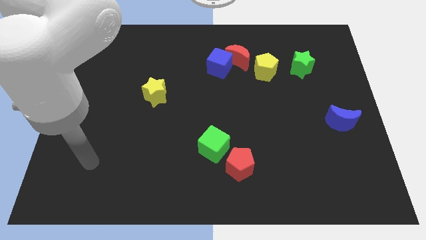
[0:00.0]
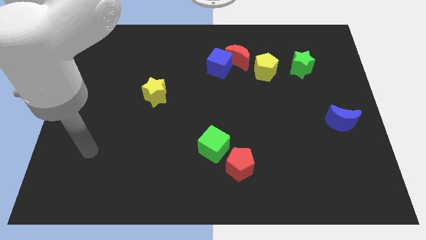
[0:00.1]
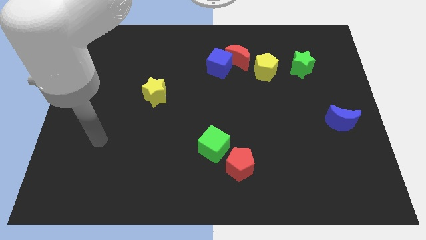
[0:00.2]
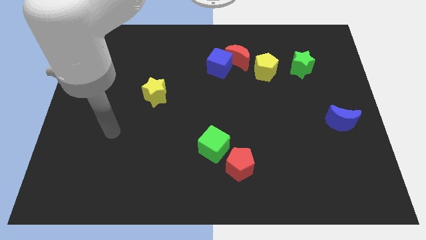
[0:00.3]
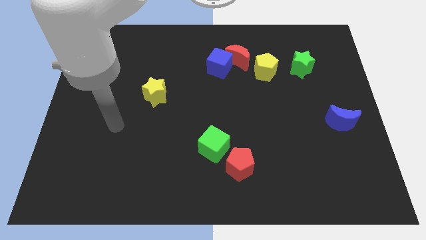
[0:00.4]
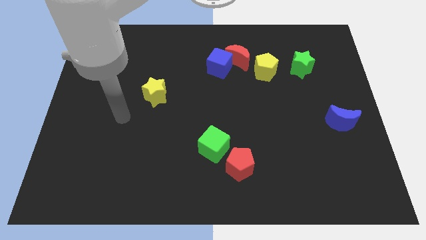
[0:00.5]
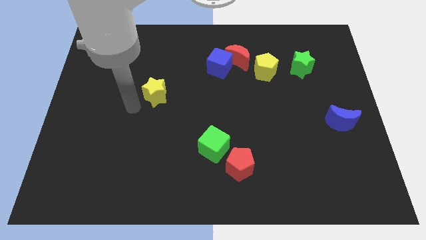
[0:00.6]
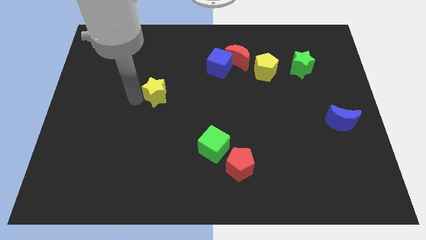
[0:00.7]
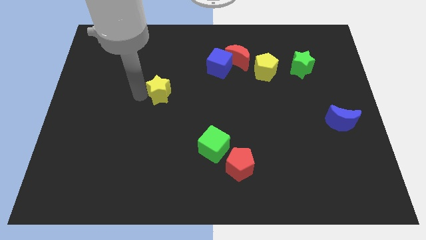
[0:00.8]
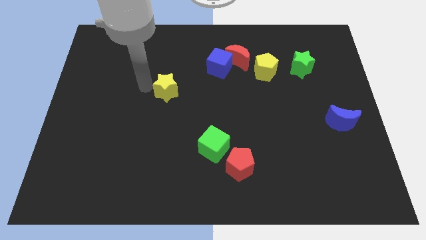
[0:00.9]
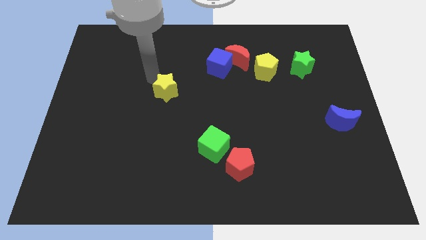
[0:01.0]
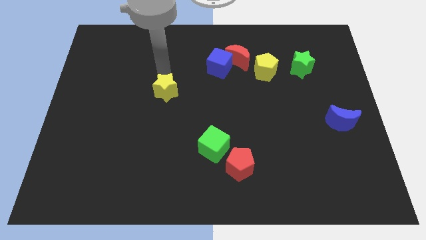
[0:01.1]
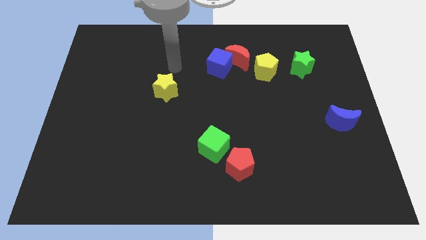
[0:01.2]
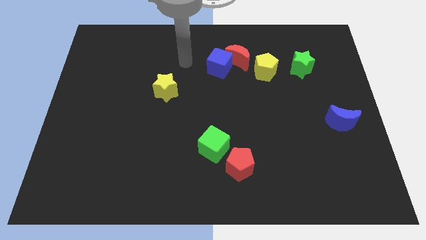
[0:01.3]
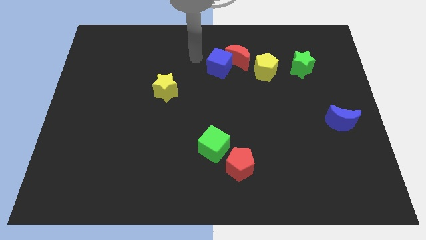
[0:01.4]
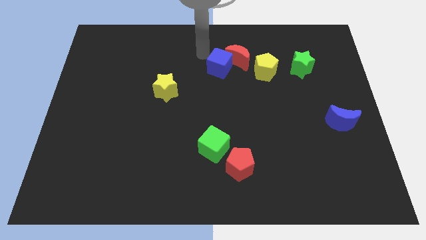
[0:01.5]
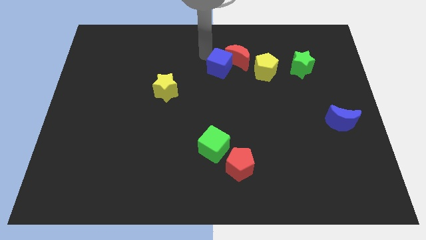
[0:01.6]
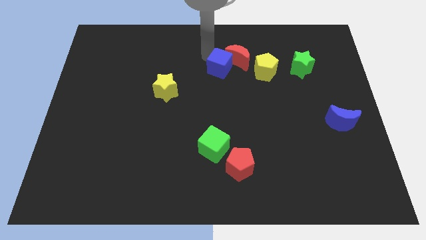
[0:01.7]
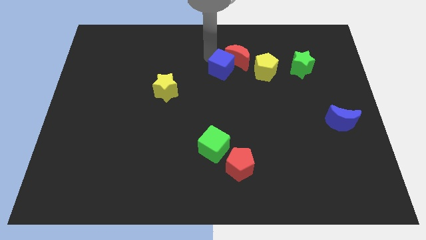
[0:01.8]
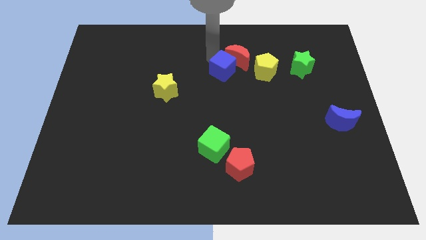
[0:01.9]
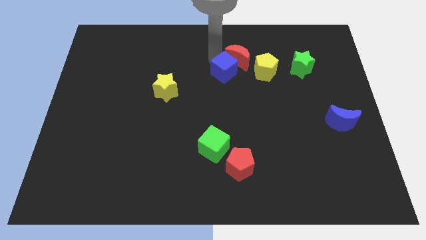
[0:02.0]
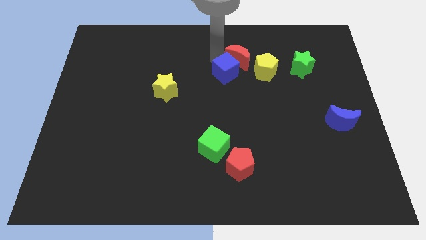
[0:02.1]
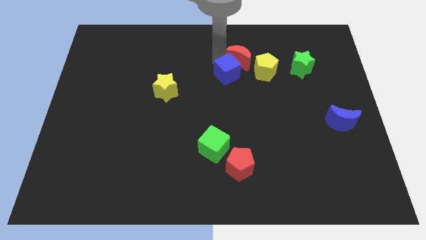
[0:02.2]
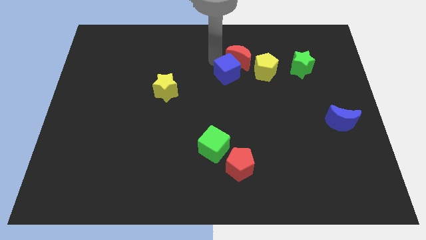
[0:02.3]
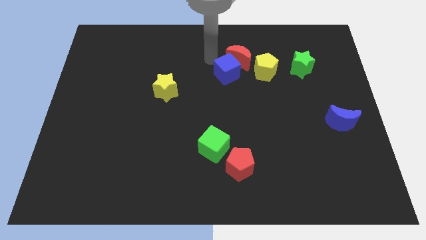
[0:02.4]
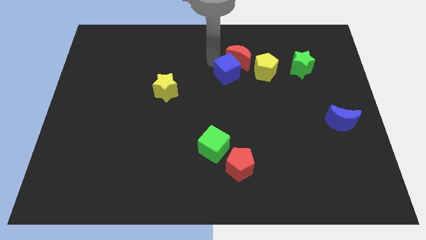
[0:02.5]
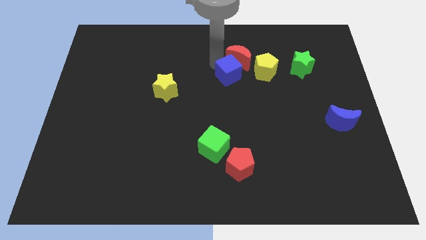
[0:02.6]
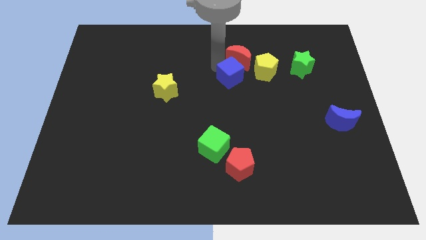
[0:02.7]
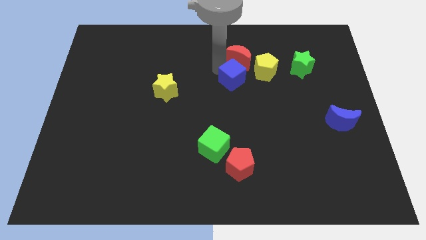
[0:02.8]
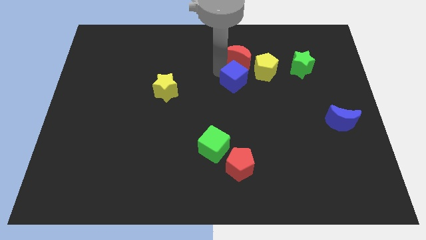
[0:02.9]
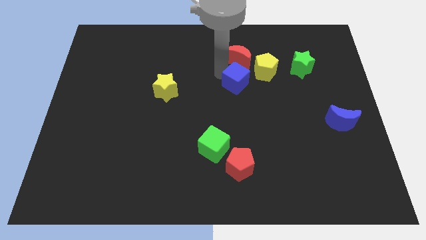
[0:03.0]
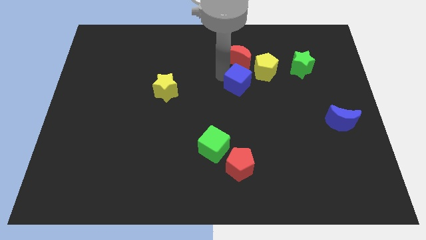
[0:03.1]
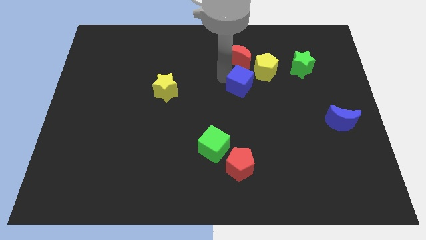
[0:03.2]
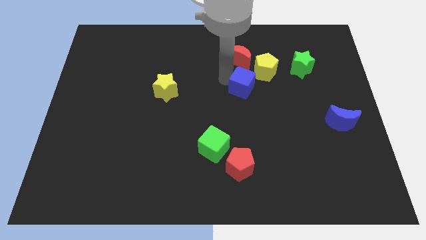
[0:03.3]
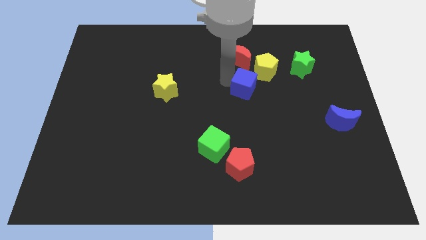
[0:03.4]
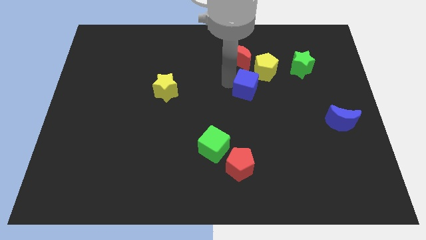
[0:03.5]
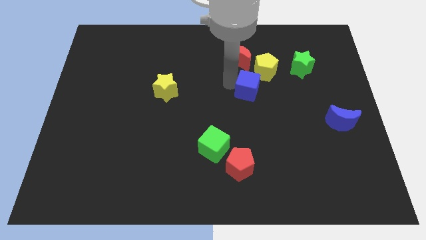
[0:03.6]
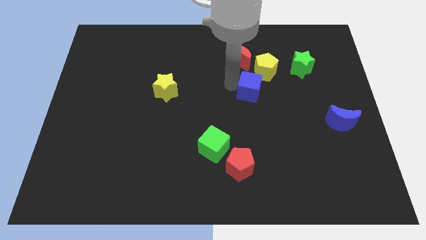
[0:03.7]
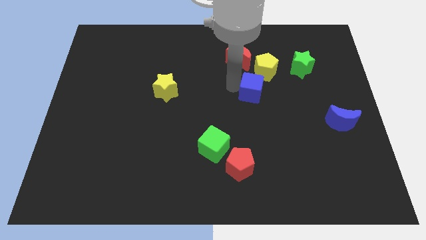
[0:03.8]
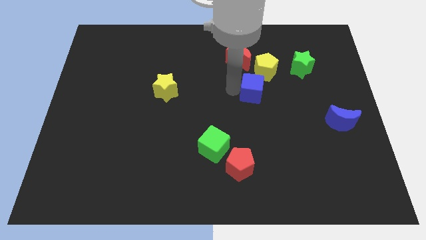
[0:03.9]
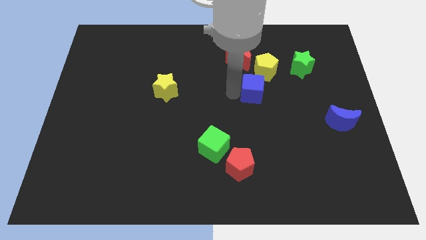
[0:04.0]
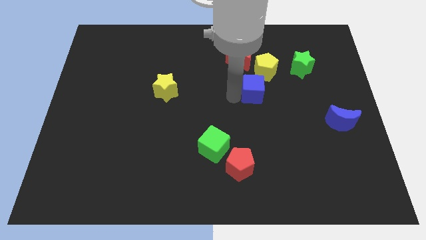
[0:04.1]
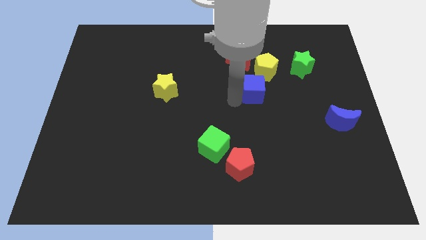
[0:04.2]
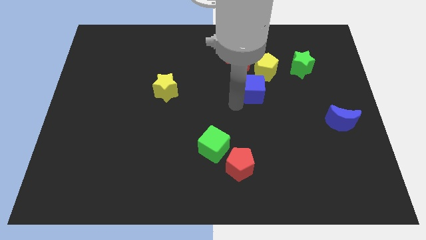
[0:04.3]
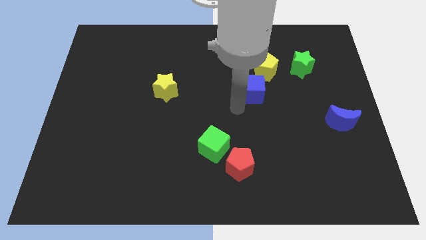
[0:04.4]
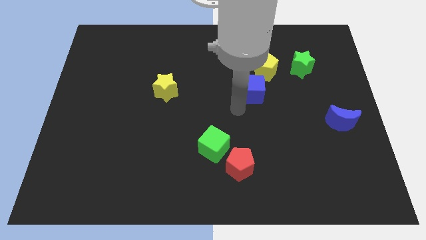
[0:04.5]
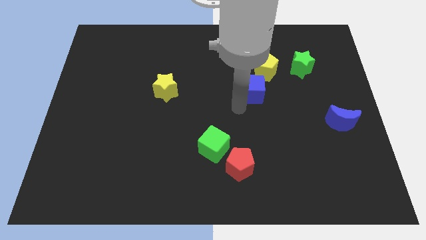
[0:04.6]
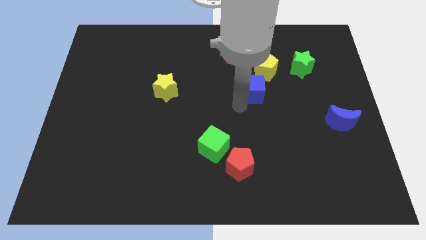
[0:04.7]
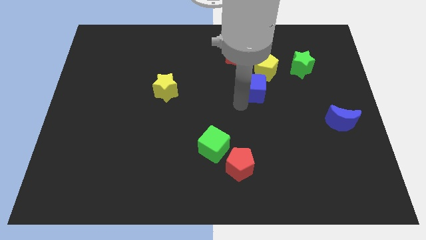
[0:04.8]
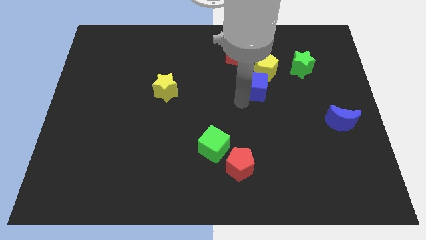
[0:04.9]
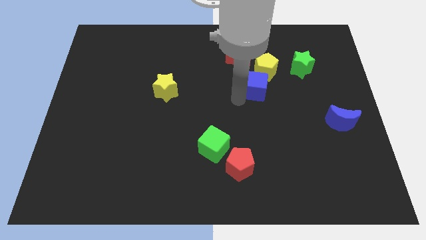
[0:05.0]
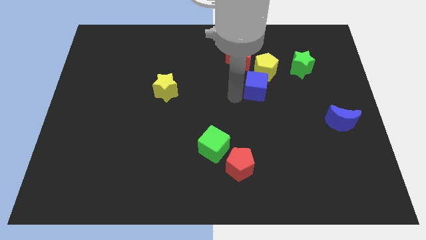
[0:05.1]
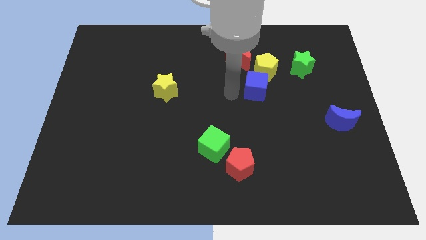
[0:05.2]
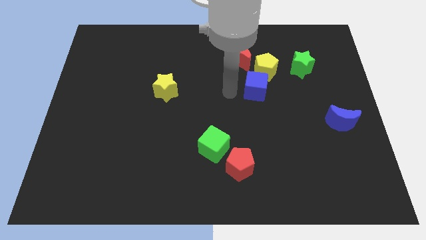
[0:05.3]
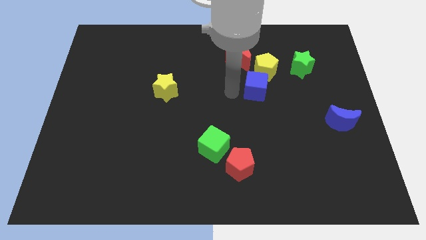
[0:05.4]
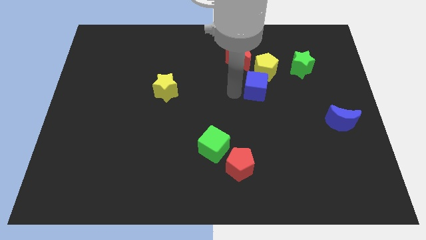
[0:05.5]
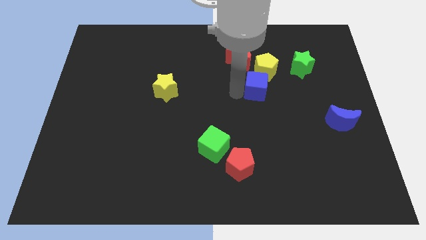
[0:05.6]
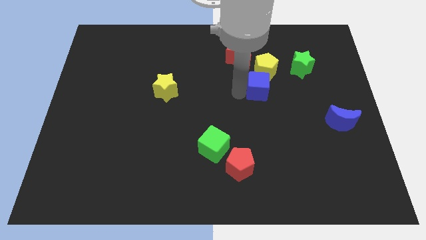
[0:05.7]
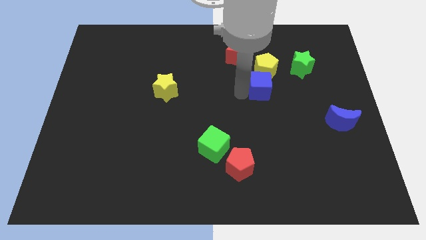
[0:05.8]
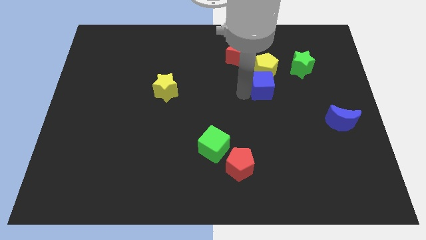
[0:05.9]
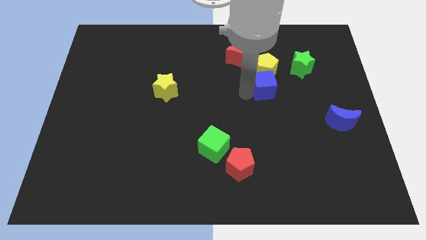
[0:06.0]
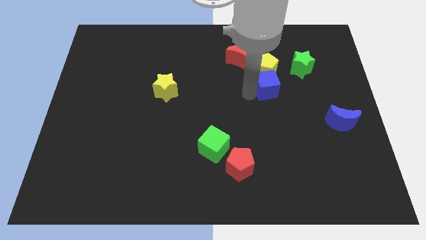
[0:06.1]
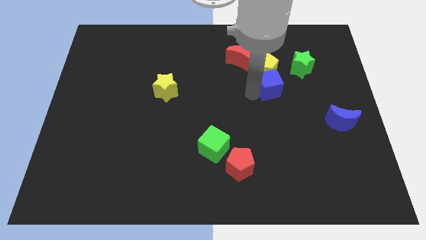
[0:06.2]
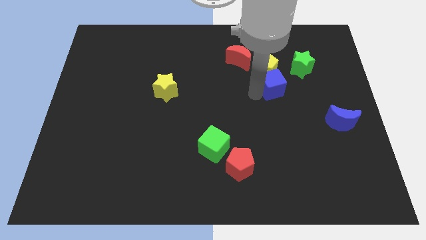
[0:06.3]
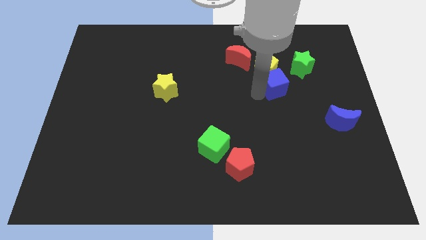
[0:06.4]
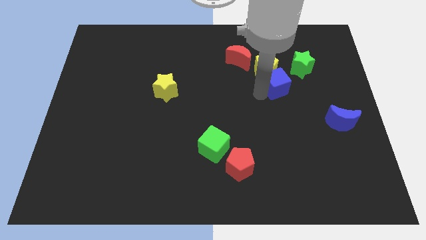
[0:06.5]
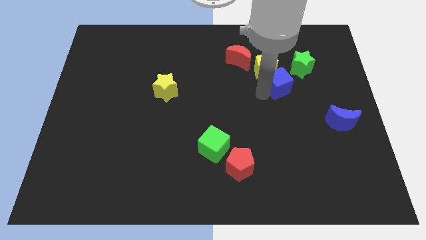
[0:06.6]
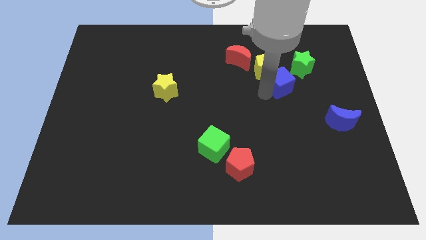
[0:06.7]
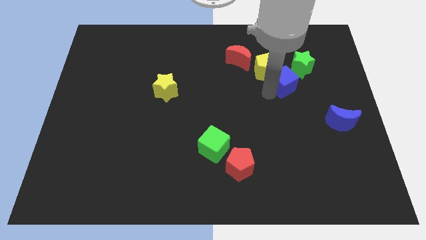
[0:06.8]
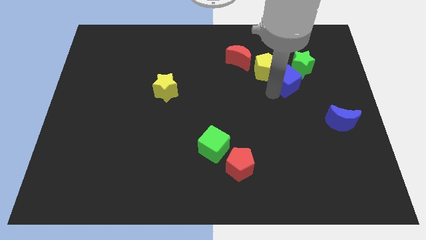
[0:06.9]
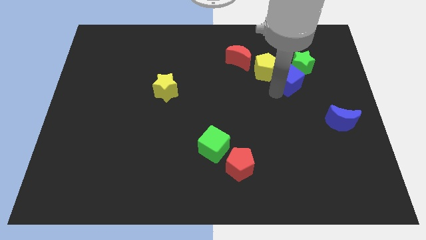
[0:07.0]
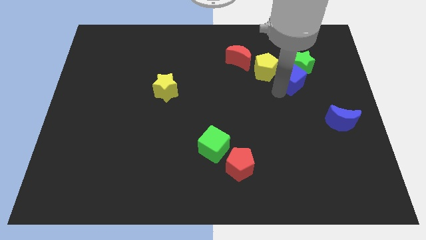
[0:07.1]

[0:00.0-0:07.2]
move the blue cube next to the green star
